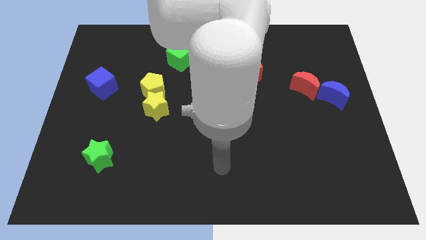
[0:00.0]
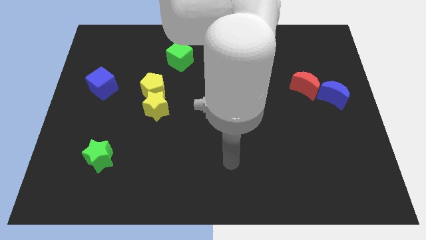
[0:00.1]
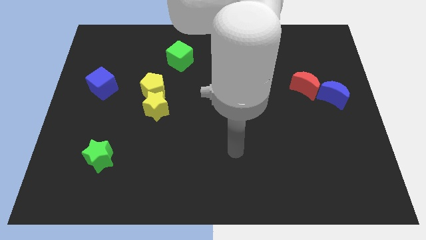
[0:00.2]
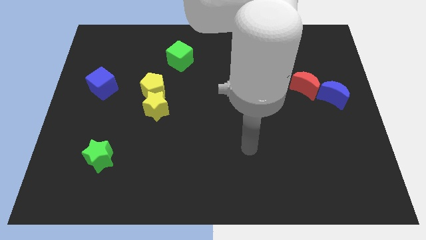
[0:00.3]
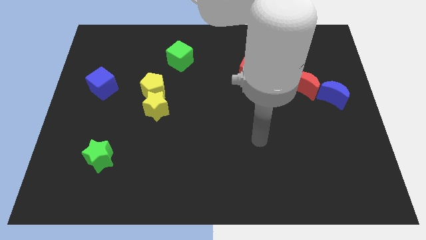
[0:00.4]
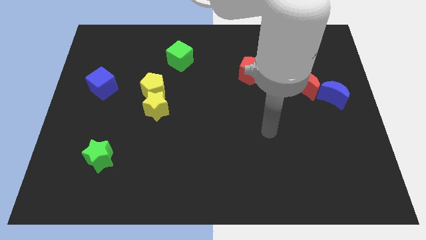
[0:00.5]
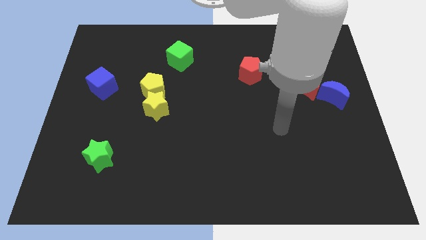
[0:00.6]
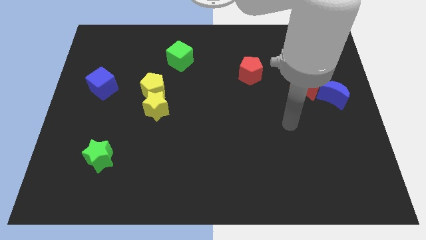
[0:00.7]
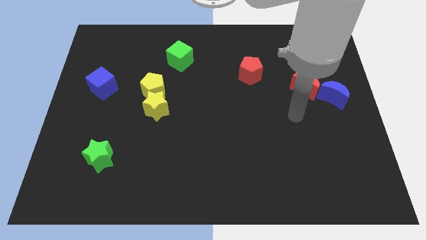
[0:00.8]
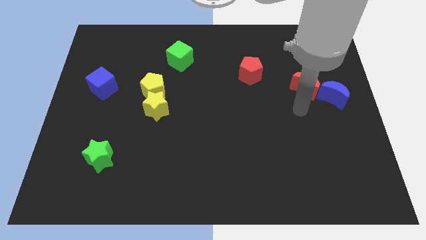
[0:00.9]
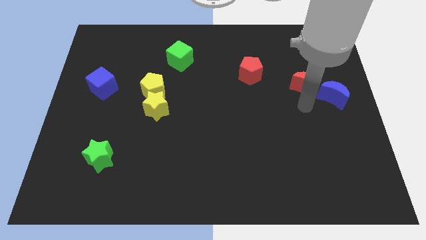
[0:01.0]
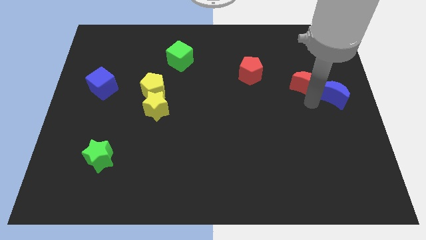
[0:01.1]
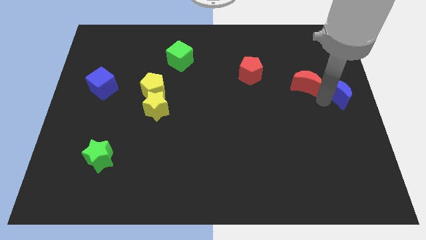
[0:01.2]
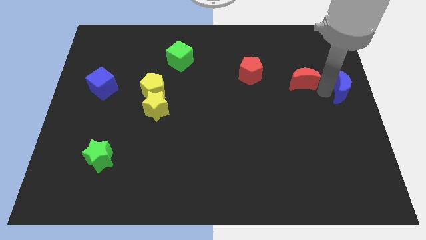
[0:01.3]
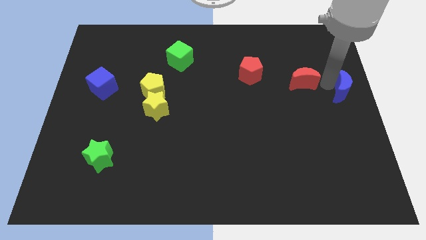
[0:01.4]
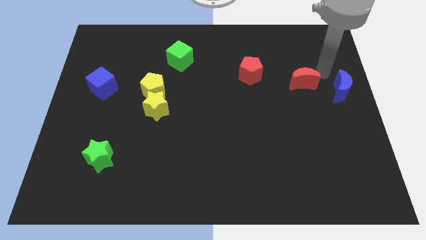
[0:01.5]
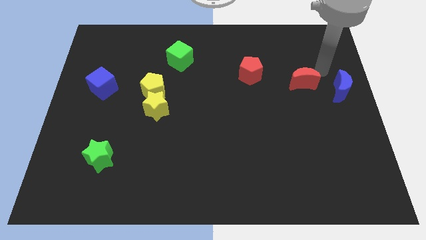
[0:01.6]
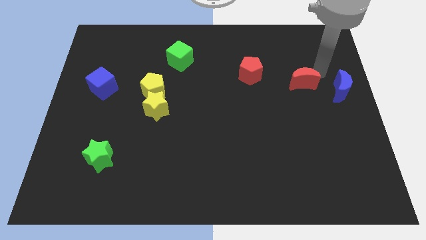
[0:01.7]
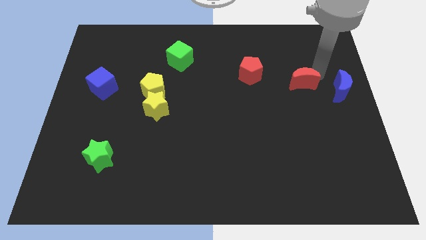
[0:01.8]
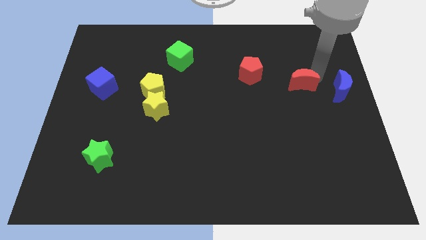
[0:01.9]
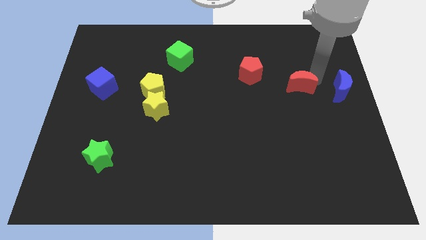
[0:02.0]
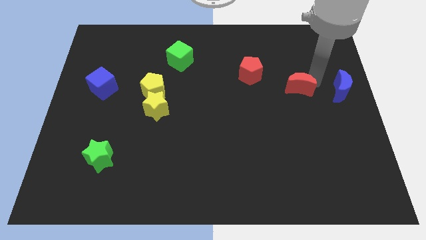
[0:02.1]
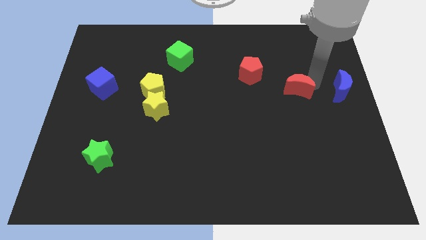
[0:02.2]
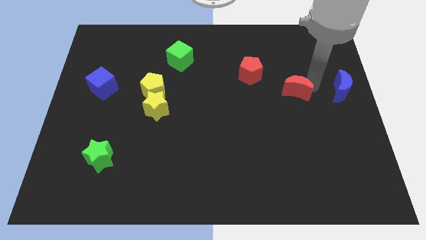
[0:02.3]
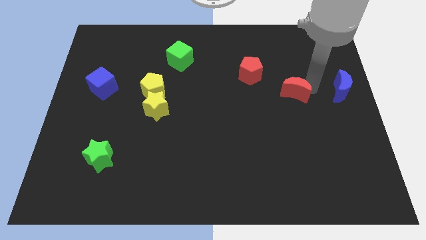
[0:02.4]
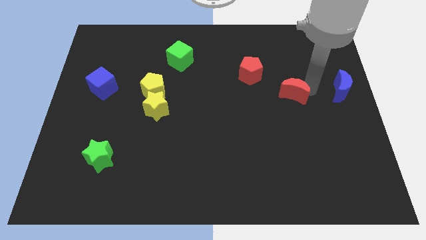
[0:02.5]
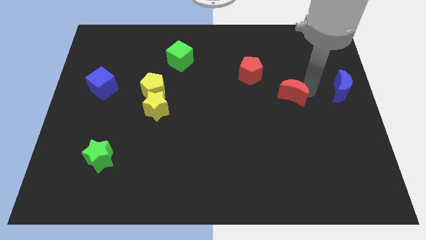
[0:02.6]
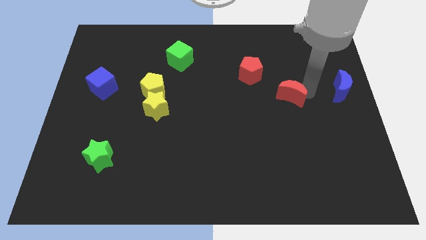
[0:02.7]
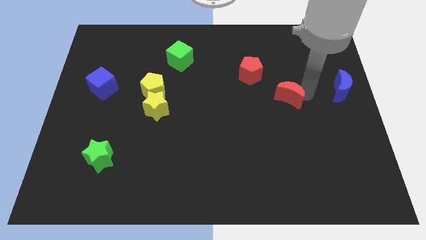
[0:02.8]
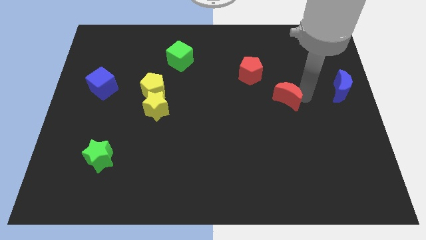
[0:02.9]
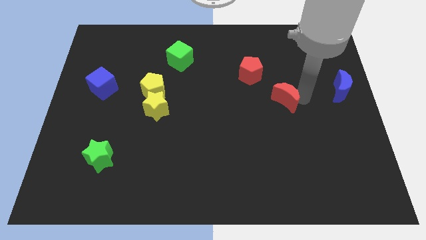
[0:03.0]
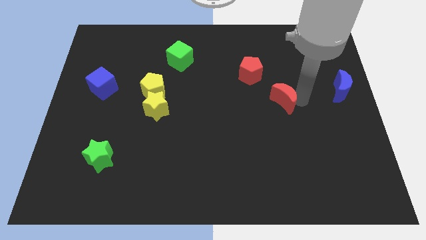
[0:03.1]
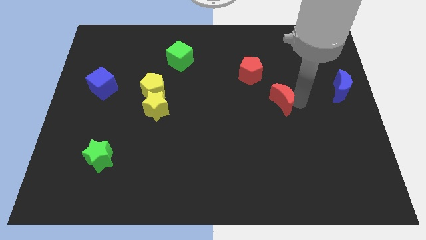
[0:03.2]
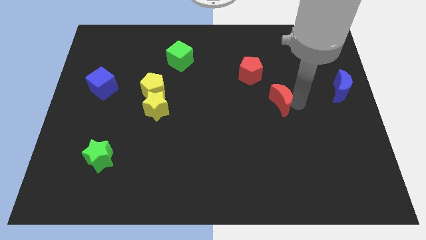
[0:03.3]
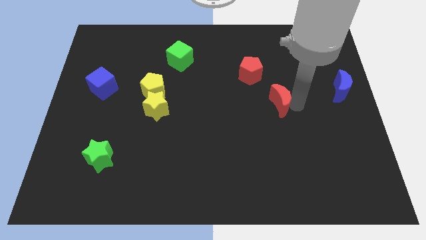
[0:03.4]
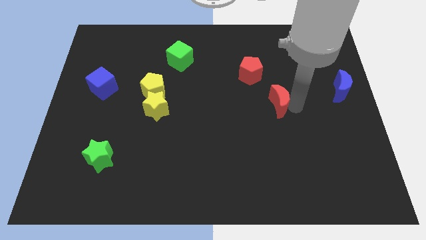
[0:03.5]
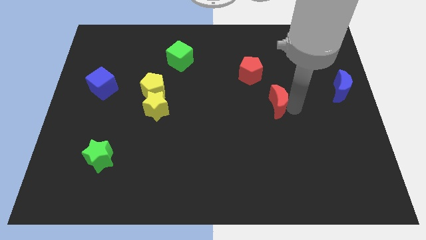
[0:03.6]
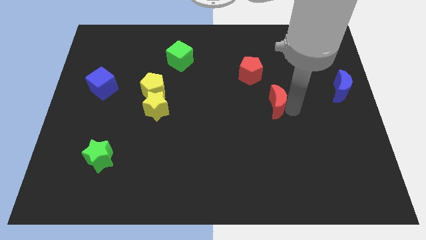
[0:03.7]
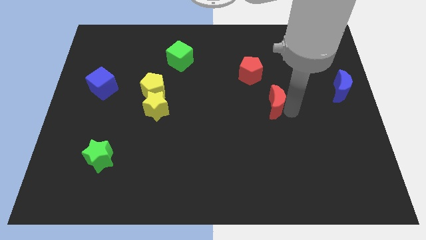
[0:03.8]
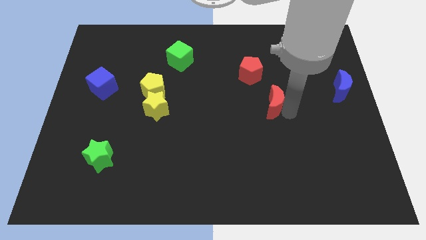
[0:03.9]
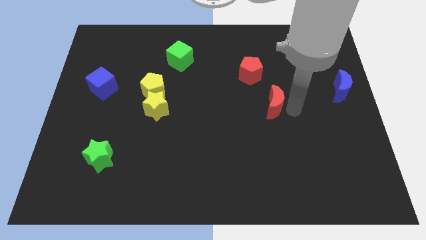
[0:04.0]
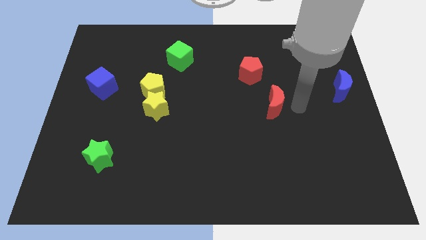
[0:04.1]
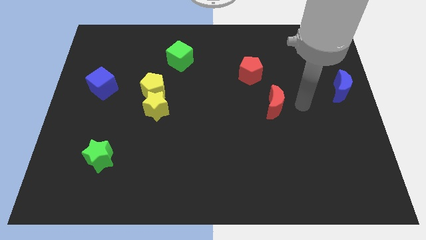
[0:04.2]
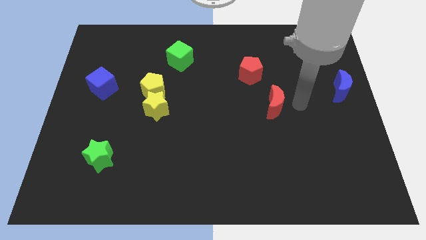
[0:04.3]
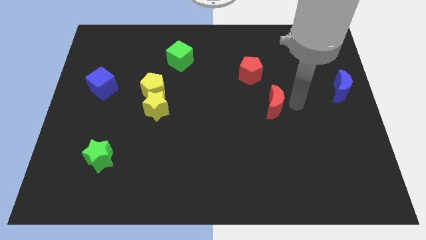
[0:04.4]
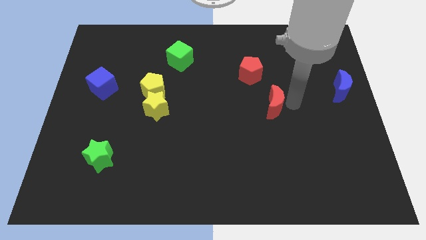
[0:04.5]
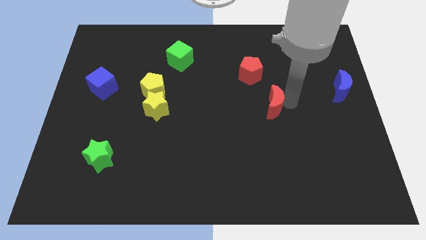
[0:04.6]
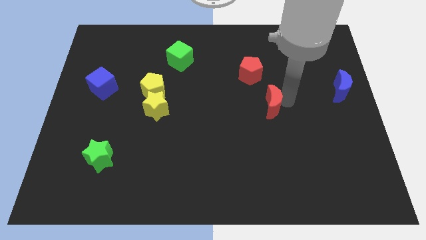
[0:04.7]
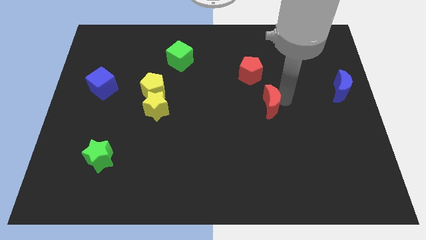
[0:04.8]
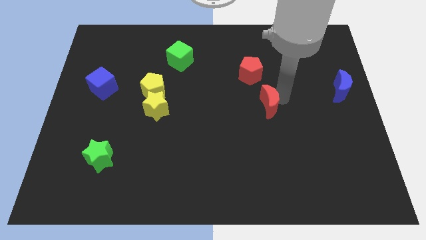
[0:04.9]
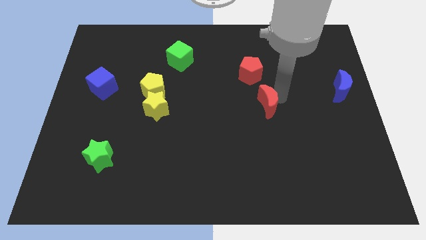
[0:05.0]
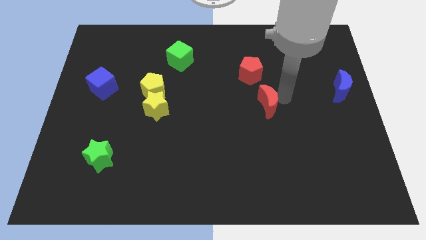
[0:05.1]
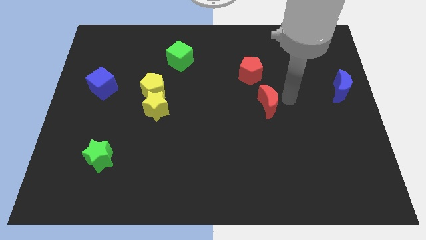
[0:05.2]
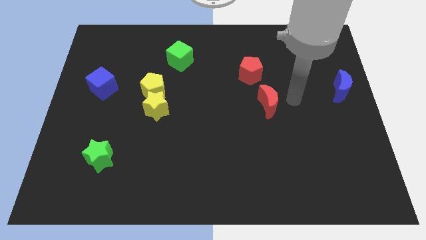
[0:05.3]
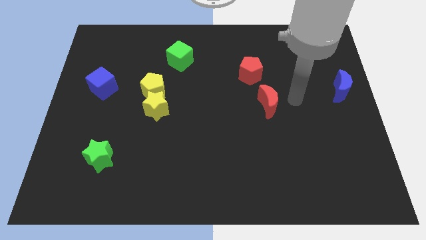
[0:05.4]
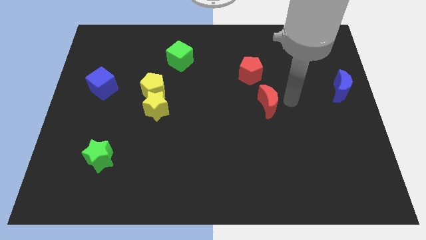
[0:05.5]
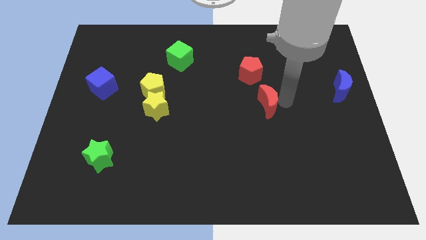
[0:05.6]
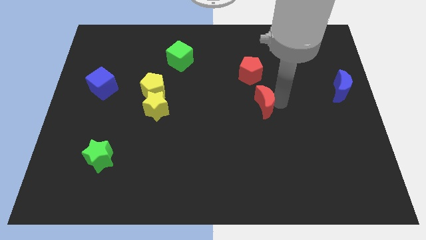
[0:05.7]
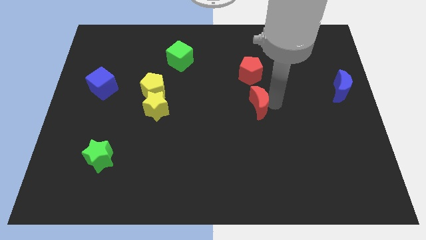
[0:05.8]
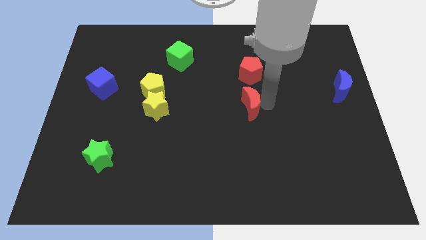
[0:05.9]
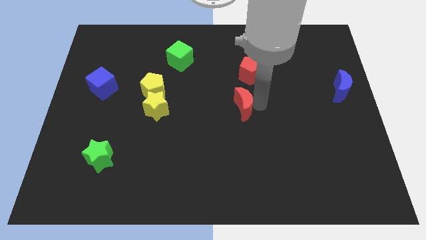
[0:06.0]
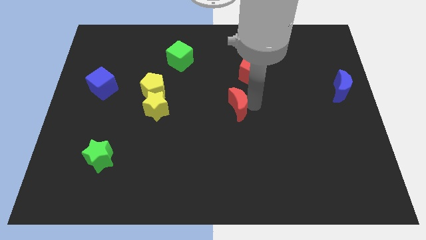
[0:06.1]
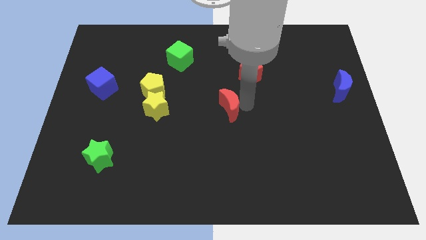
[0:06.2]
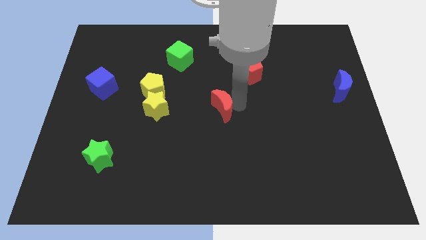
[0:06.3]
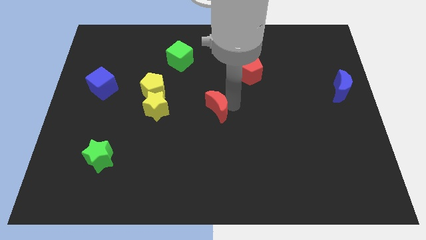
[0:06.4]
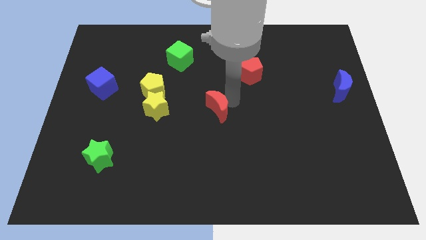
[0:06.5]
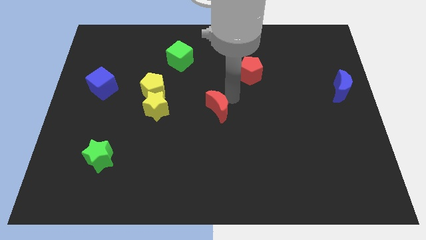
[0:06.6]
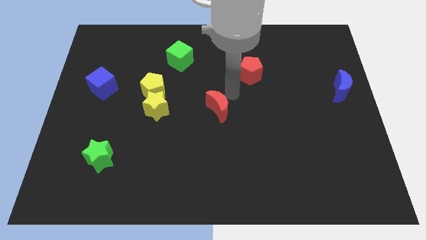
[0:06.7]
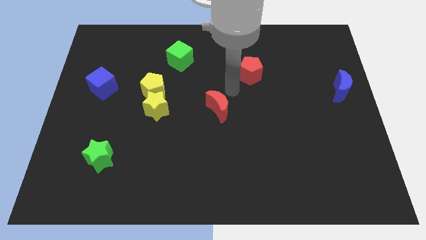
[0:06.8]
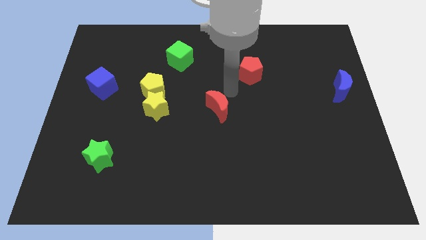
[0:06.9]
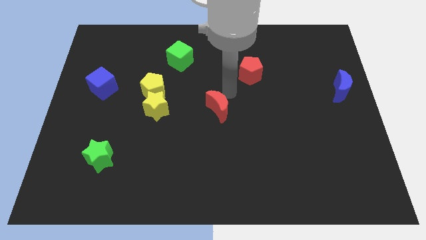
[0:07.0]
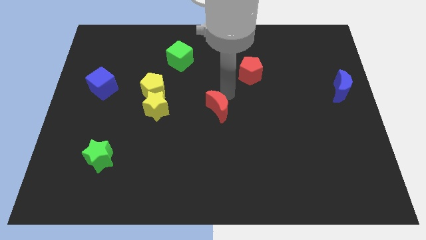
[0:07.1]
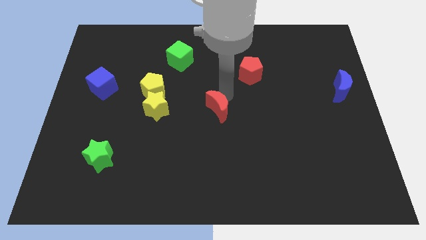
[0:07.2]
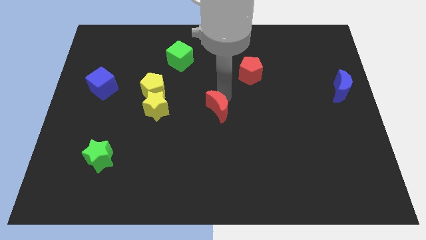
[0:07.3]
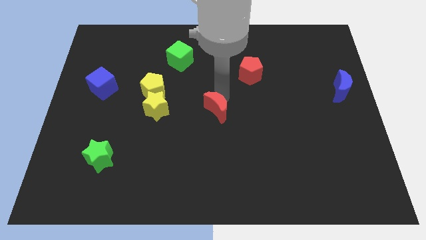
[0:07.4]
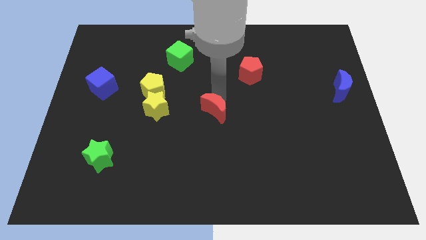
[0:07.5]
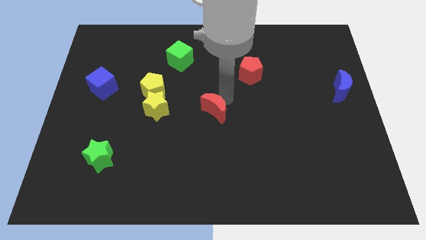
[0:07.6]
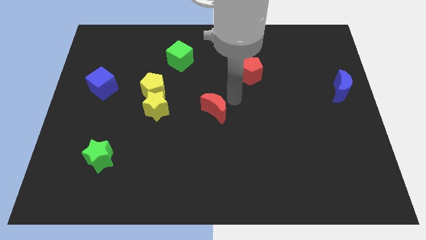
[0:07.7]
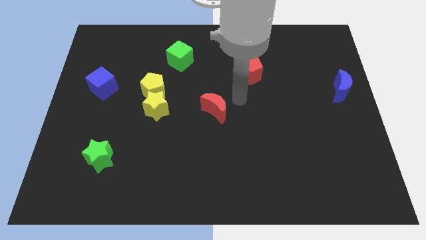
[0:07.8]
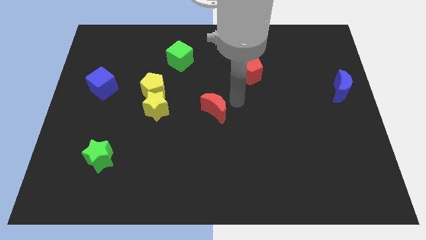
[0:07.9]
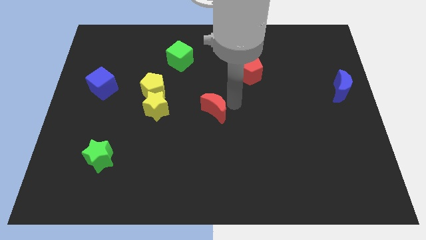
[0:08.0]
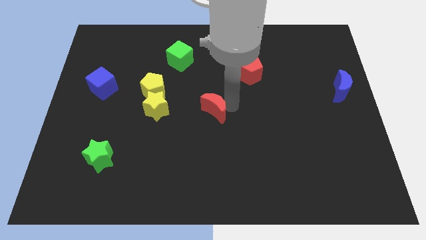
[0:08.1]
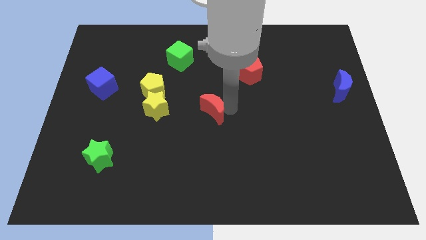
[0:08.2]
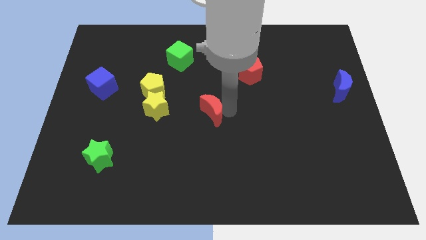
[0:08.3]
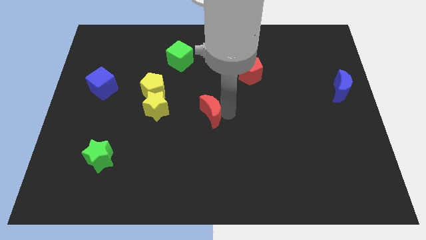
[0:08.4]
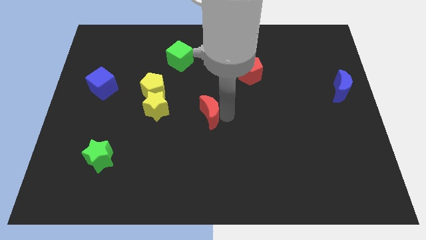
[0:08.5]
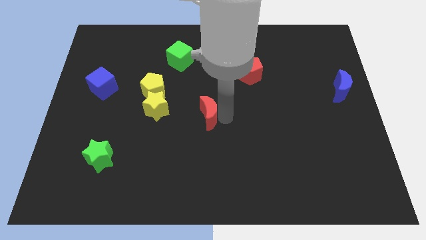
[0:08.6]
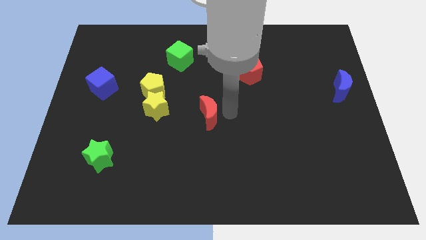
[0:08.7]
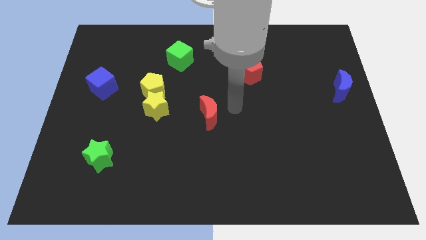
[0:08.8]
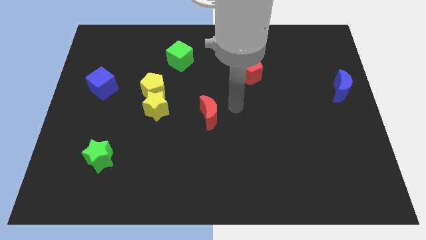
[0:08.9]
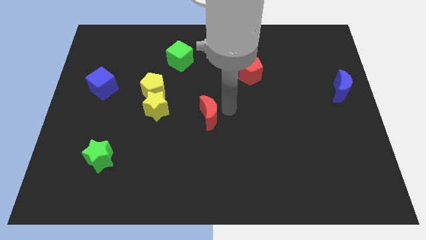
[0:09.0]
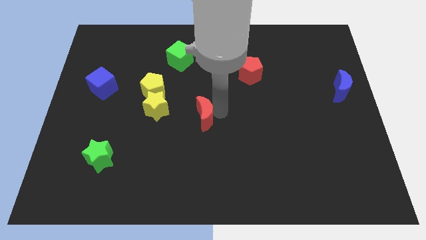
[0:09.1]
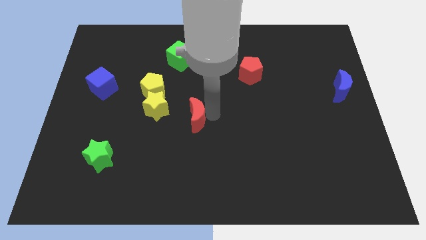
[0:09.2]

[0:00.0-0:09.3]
slide the red moon to the bottom right of the yellow star
